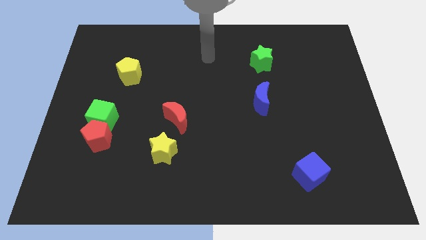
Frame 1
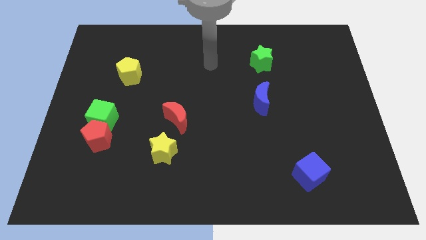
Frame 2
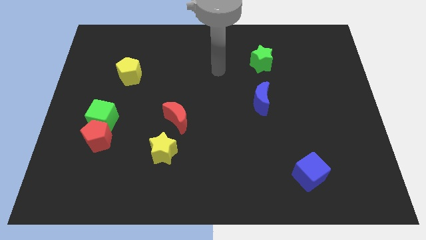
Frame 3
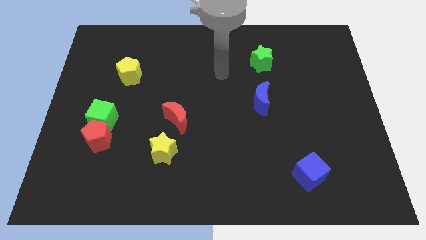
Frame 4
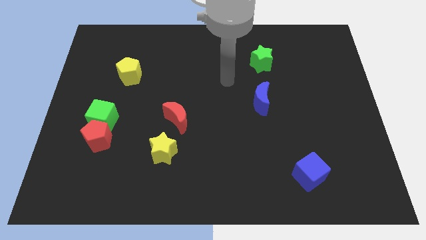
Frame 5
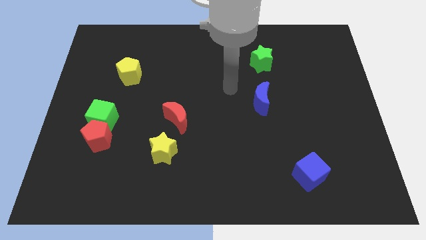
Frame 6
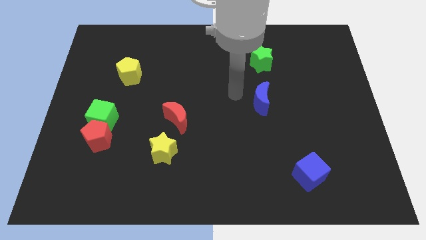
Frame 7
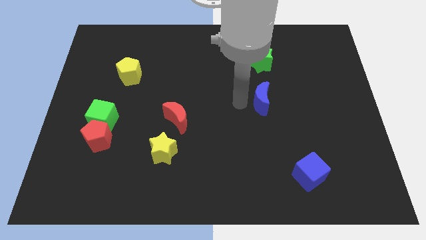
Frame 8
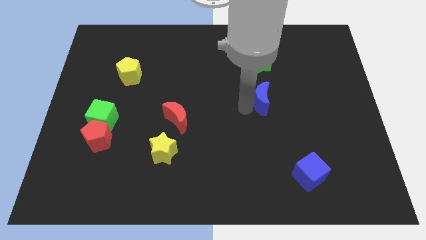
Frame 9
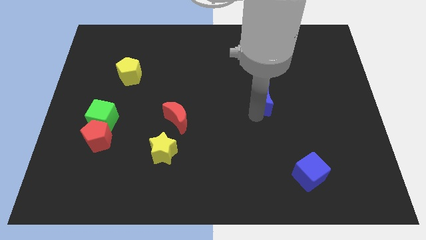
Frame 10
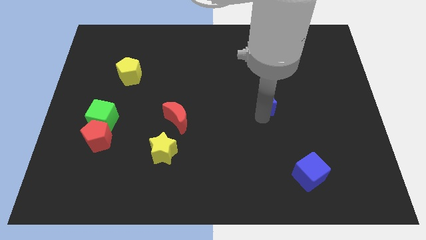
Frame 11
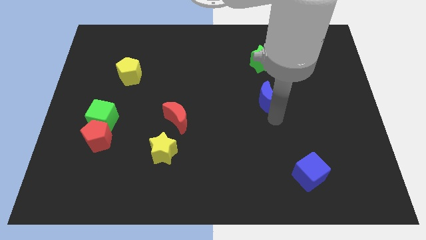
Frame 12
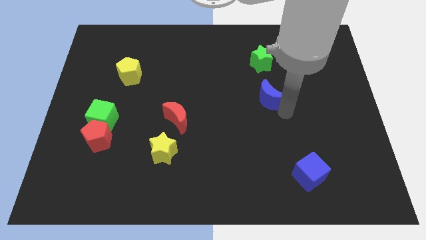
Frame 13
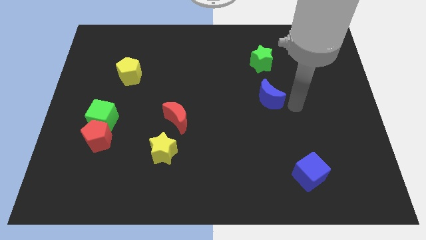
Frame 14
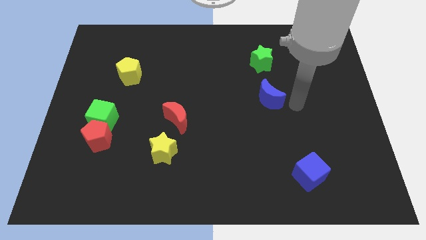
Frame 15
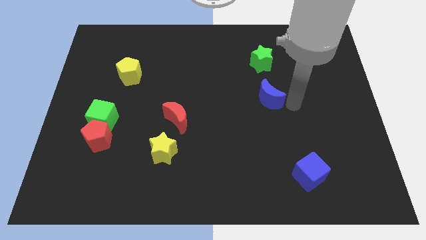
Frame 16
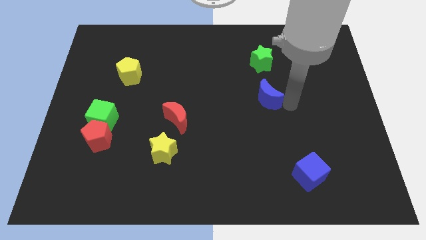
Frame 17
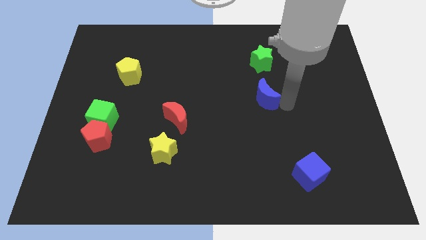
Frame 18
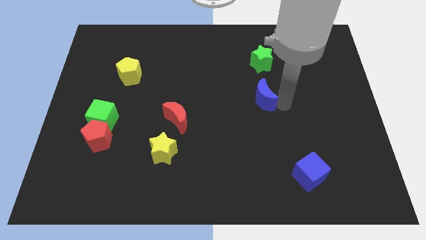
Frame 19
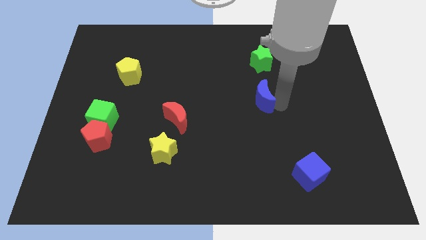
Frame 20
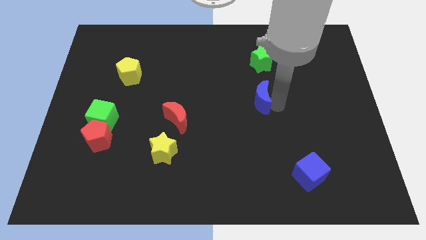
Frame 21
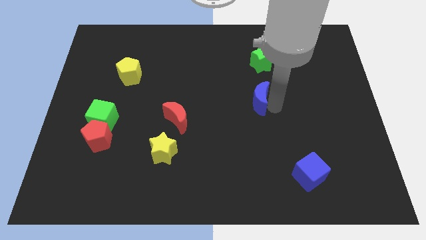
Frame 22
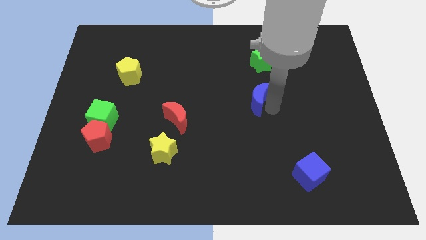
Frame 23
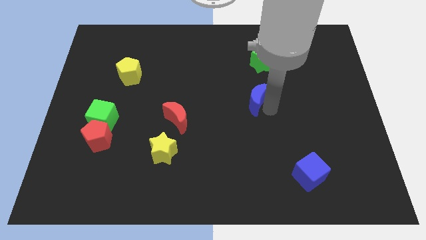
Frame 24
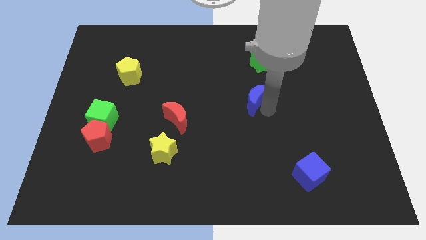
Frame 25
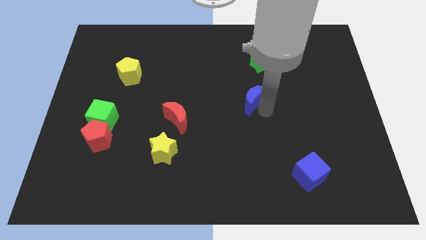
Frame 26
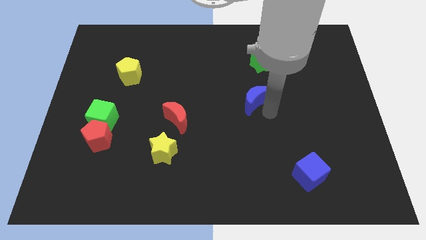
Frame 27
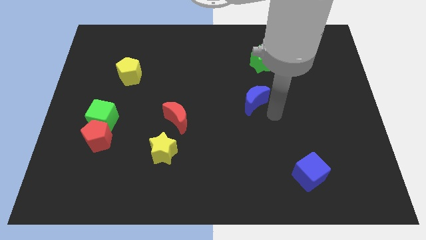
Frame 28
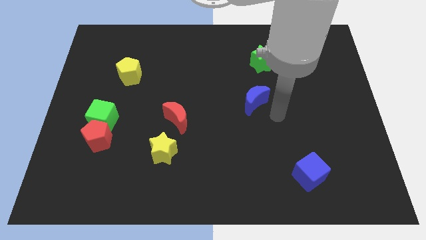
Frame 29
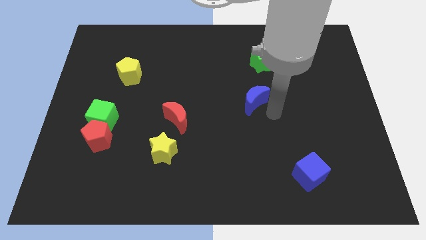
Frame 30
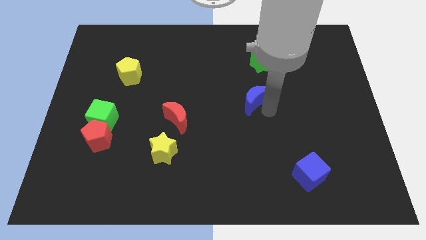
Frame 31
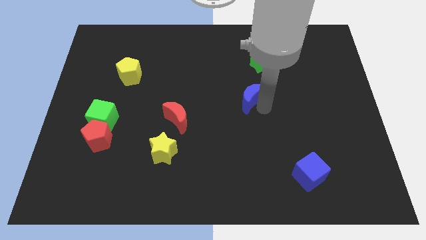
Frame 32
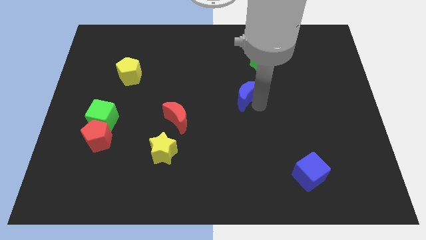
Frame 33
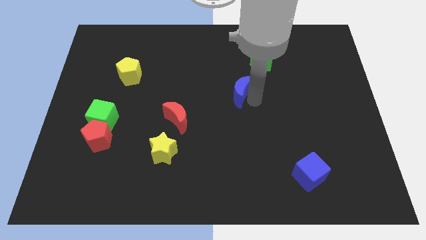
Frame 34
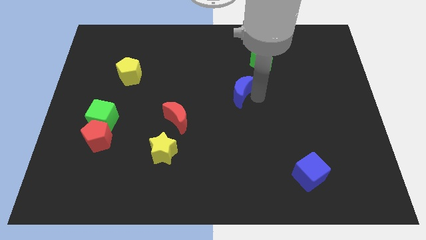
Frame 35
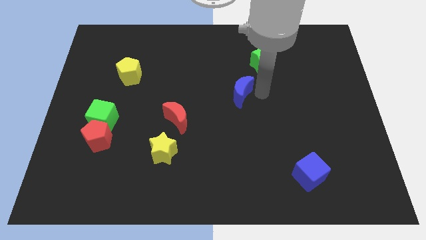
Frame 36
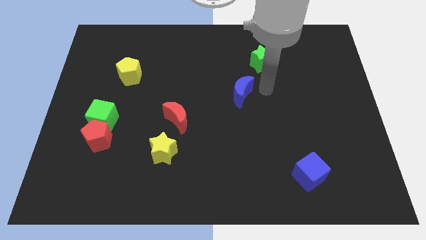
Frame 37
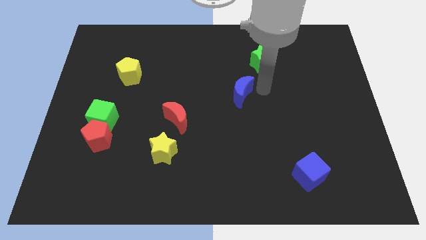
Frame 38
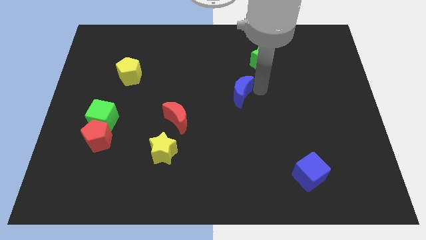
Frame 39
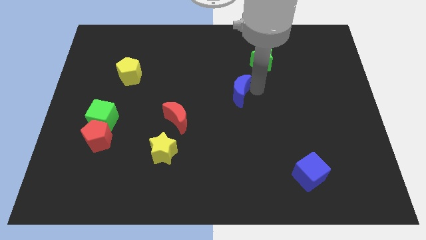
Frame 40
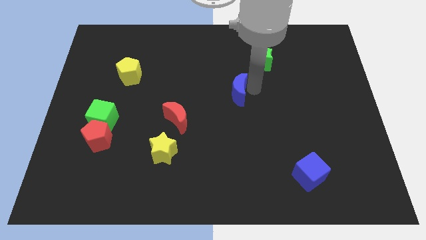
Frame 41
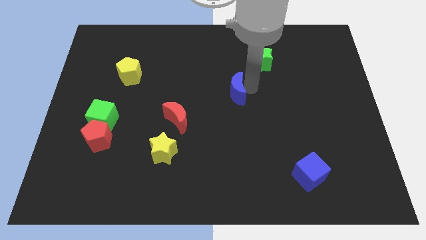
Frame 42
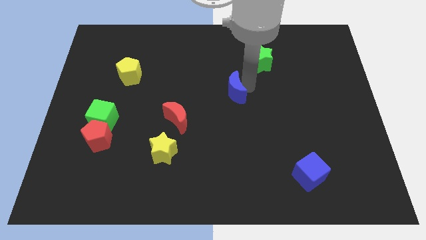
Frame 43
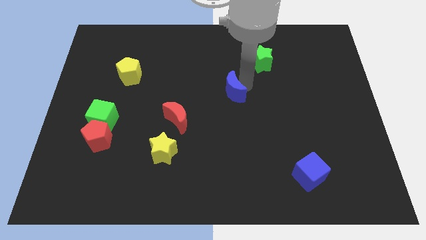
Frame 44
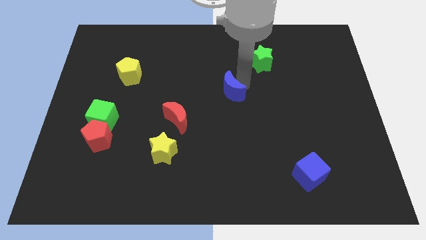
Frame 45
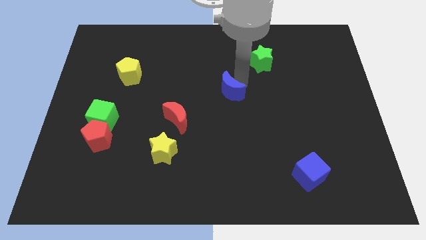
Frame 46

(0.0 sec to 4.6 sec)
slide the blue moon slightly to the left

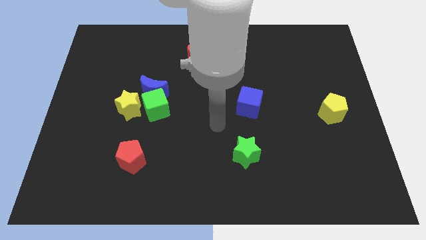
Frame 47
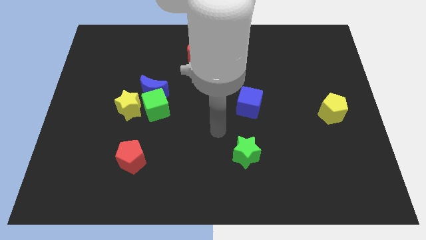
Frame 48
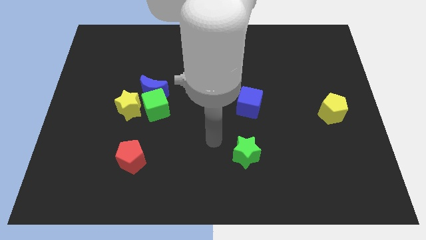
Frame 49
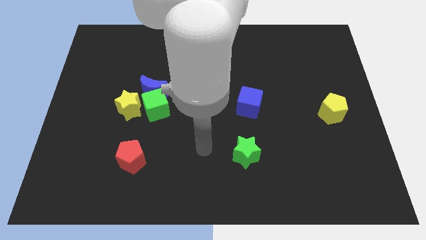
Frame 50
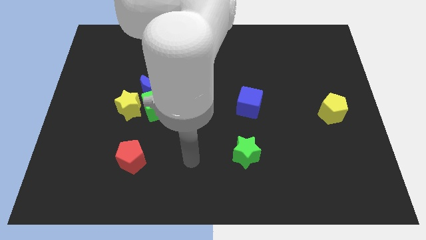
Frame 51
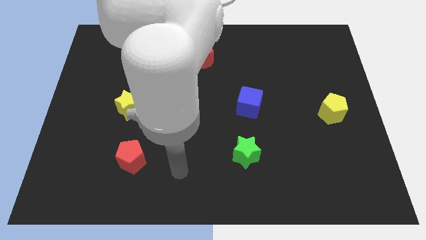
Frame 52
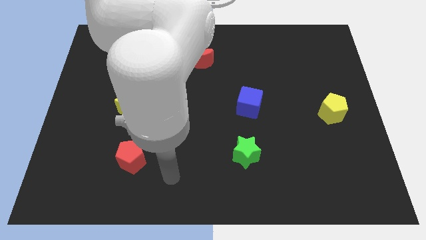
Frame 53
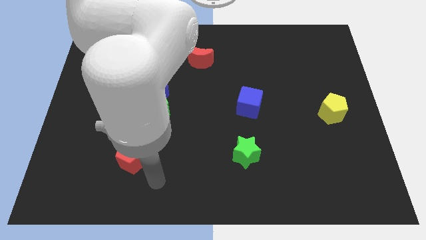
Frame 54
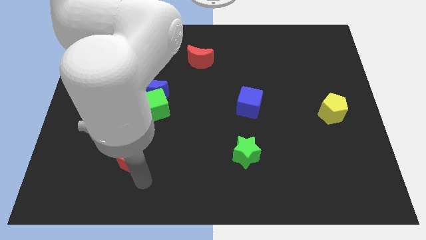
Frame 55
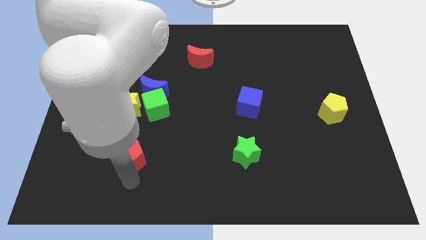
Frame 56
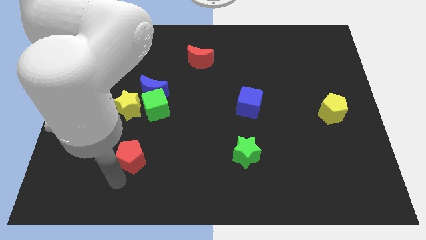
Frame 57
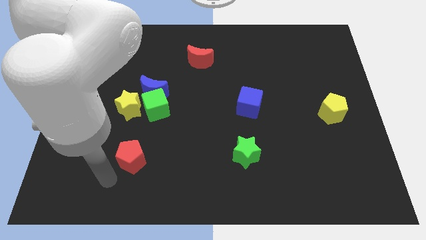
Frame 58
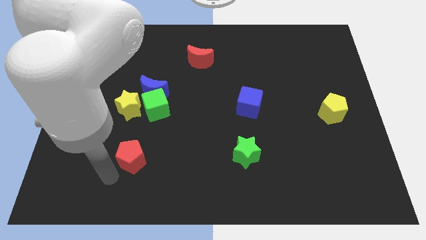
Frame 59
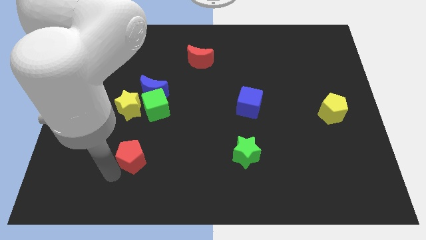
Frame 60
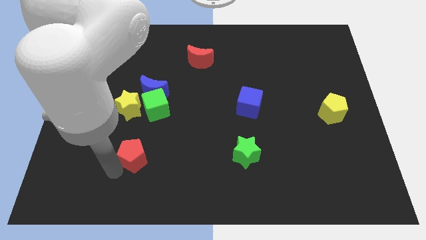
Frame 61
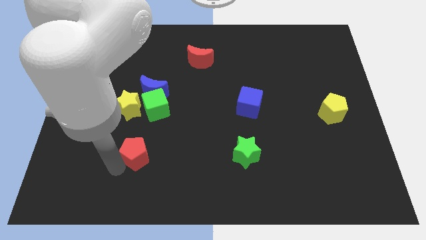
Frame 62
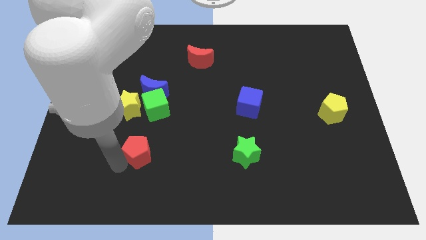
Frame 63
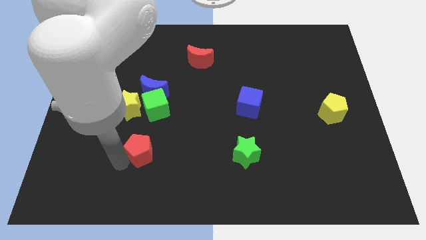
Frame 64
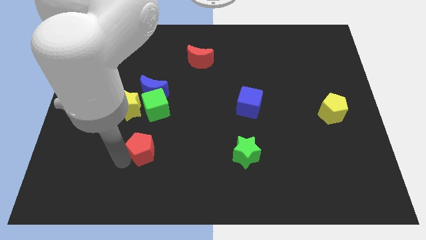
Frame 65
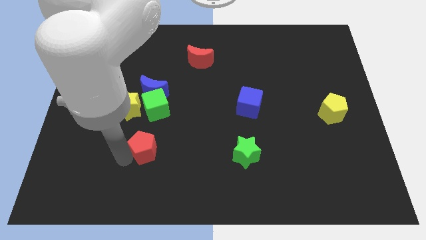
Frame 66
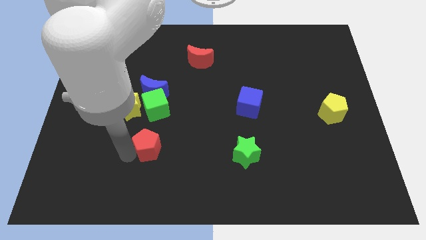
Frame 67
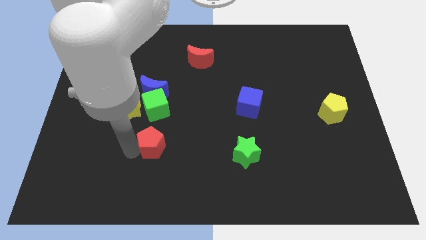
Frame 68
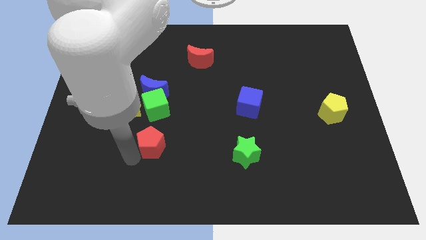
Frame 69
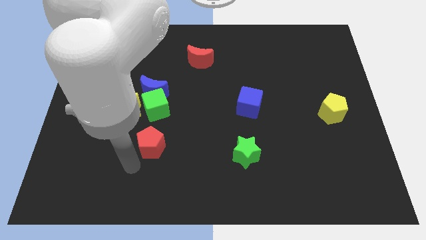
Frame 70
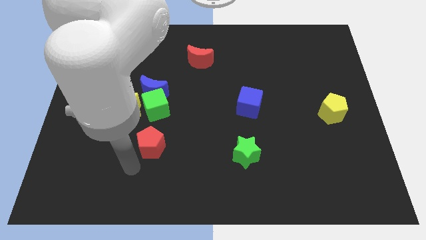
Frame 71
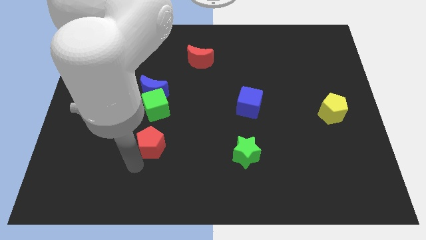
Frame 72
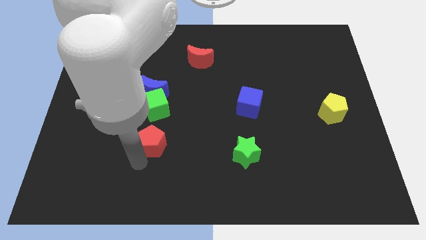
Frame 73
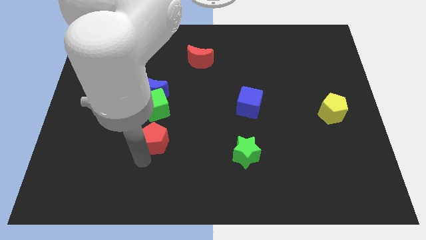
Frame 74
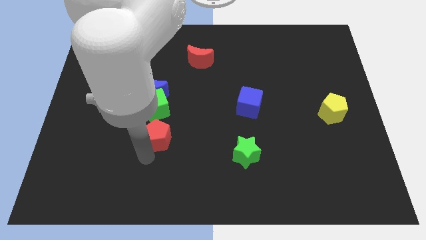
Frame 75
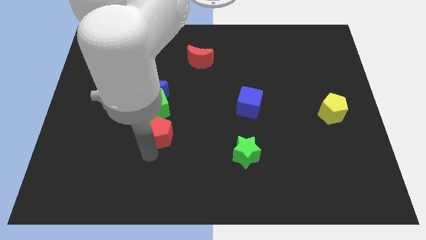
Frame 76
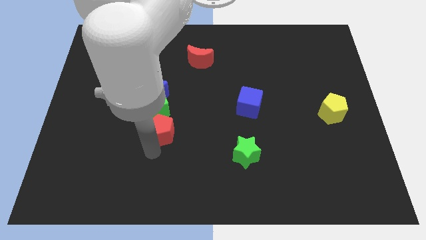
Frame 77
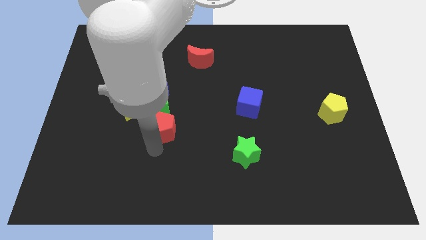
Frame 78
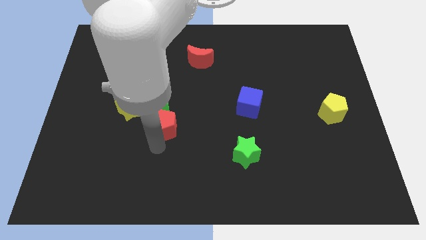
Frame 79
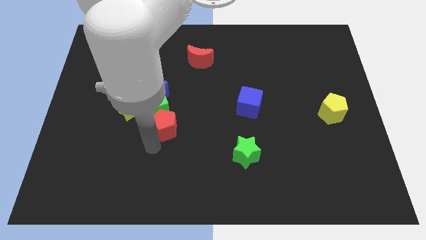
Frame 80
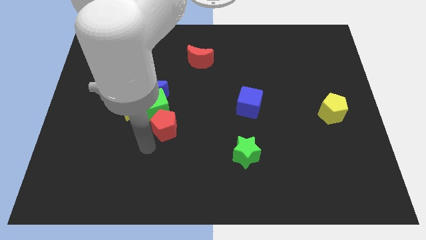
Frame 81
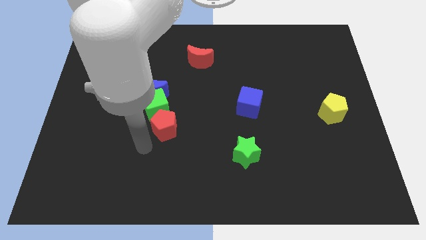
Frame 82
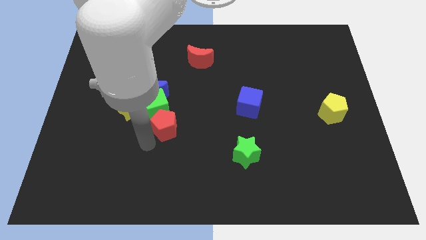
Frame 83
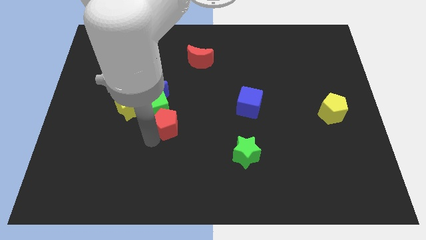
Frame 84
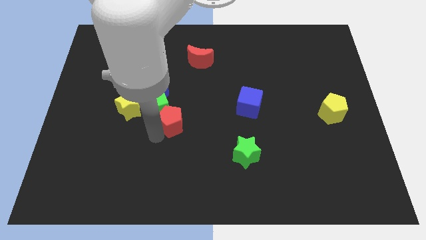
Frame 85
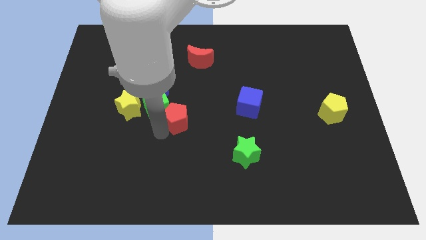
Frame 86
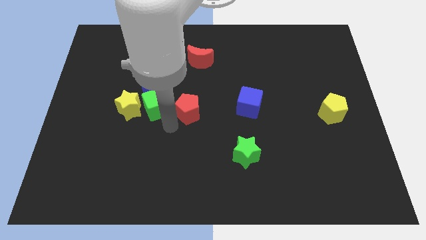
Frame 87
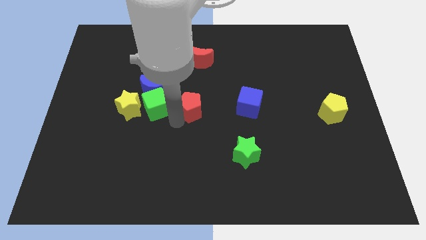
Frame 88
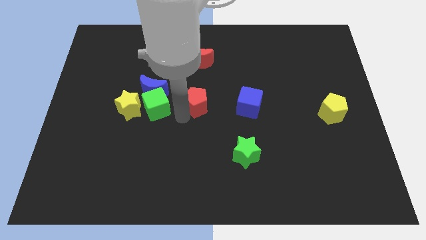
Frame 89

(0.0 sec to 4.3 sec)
push the red pentagon up and then to the right
